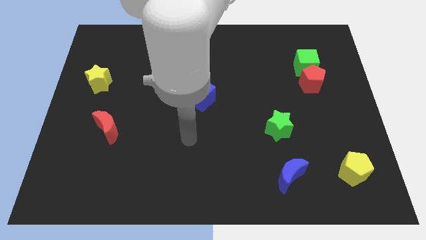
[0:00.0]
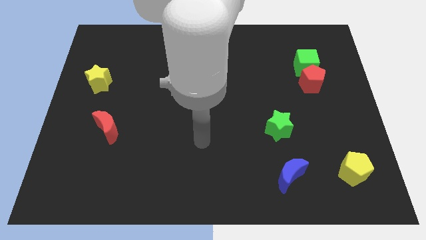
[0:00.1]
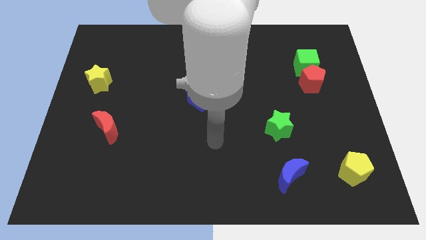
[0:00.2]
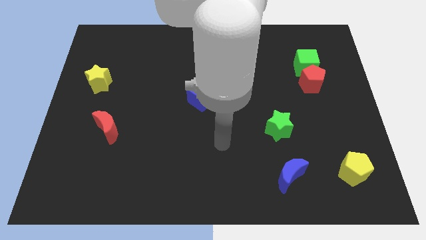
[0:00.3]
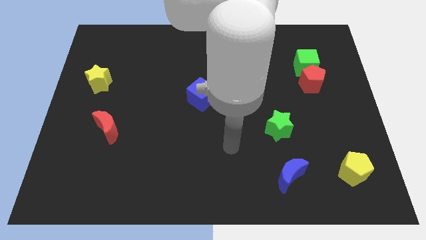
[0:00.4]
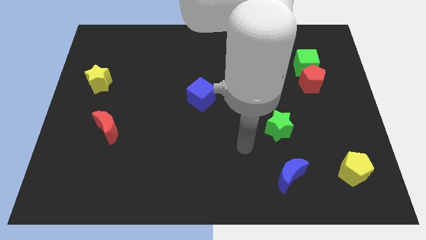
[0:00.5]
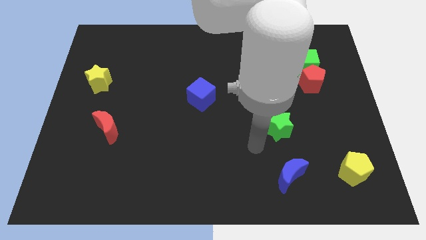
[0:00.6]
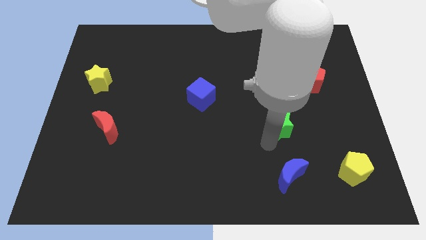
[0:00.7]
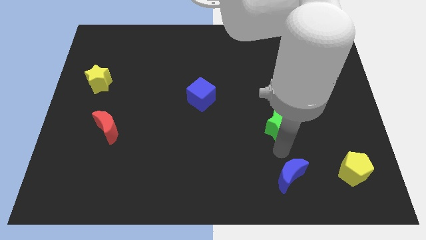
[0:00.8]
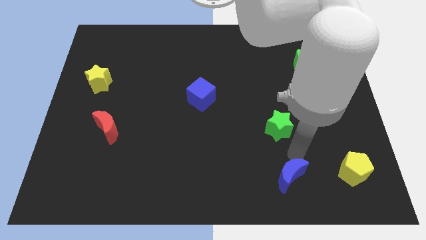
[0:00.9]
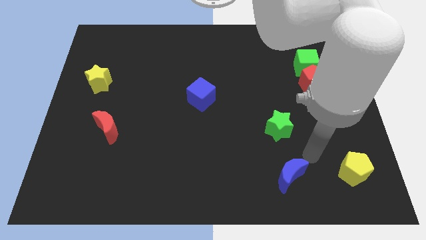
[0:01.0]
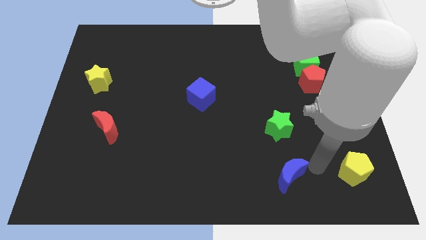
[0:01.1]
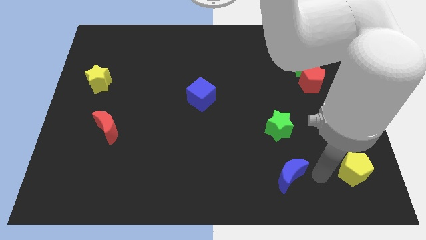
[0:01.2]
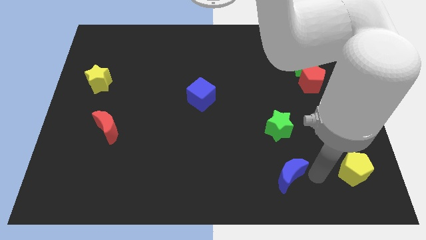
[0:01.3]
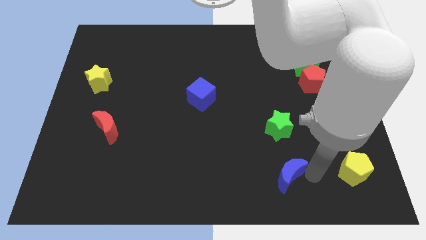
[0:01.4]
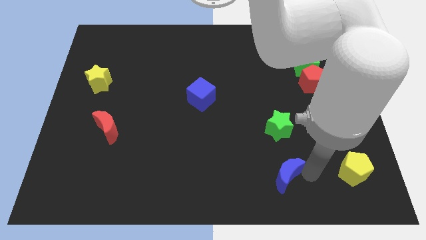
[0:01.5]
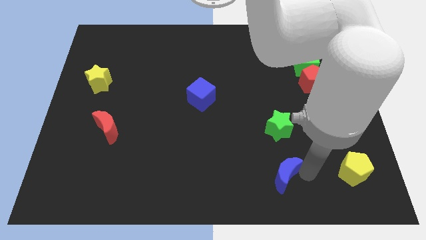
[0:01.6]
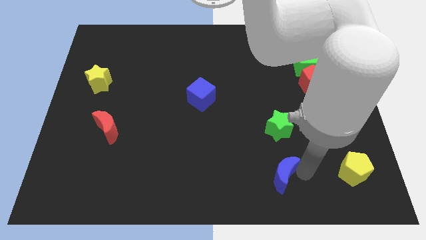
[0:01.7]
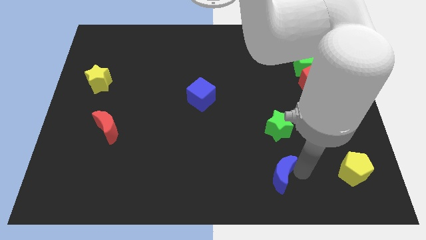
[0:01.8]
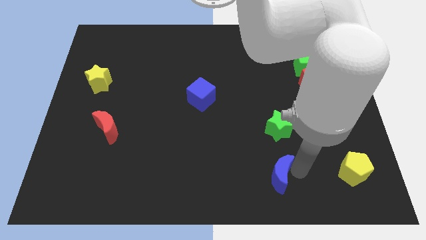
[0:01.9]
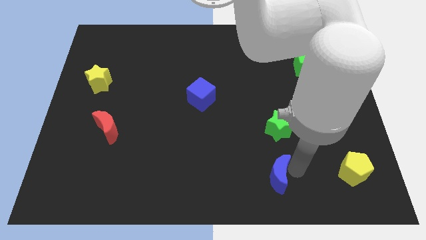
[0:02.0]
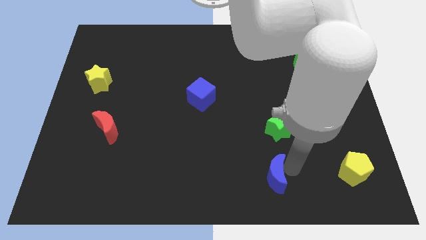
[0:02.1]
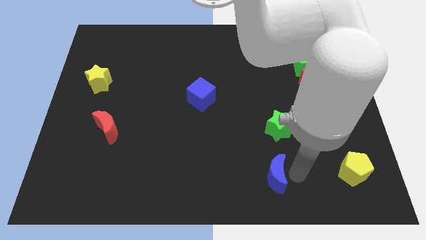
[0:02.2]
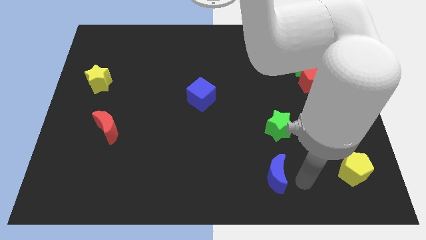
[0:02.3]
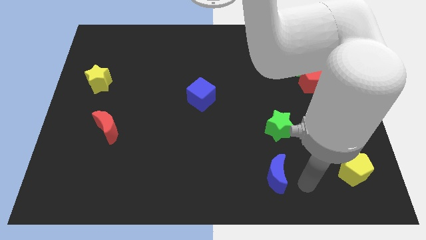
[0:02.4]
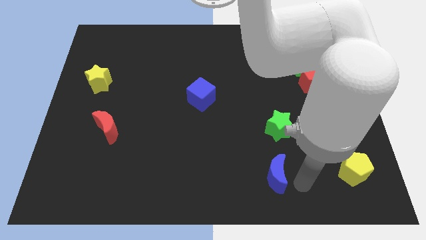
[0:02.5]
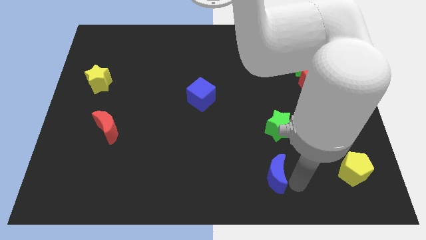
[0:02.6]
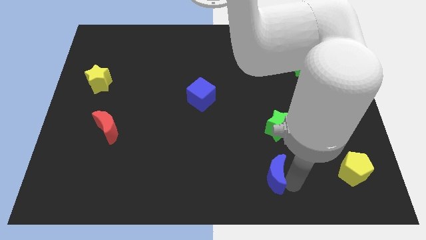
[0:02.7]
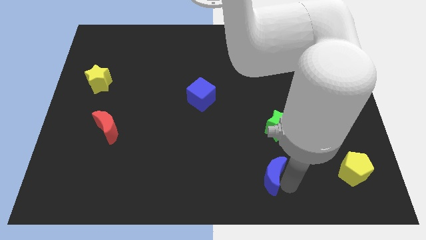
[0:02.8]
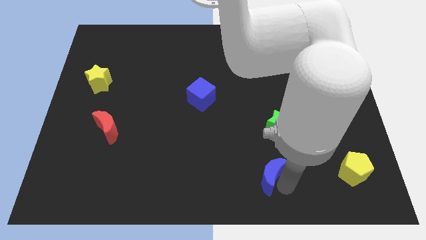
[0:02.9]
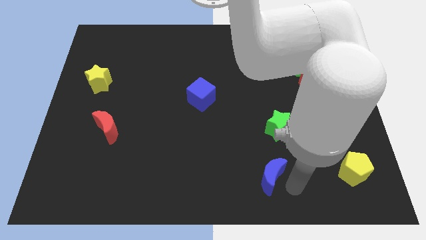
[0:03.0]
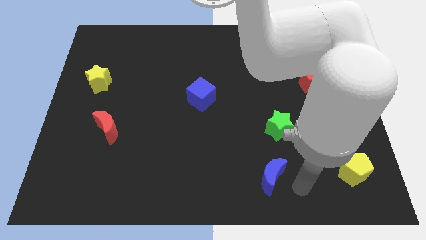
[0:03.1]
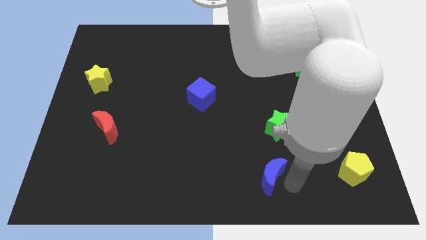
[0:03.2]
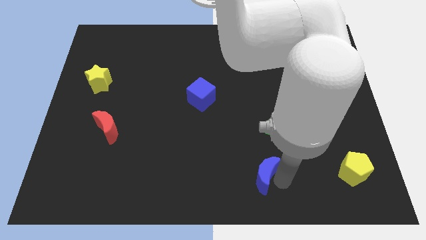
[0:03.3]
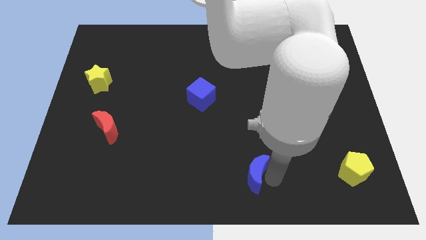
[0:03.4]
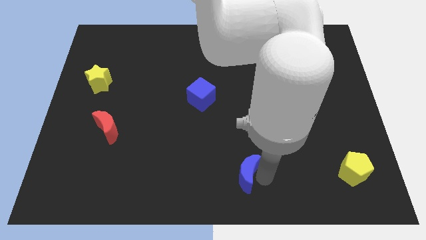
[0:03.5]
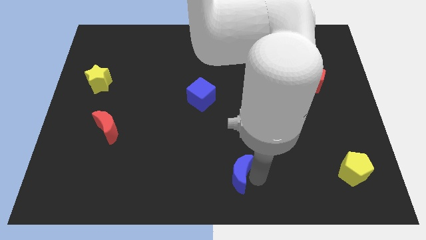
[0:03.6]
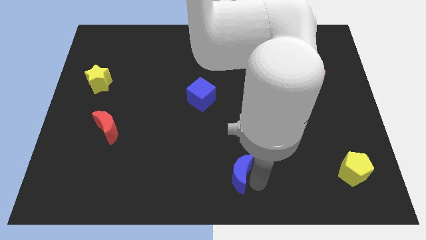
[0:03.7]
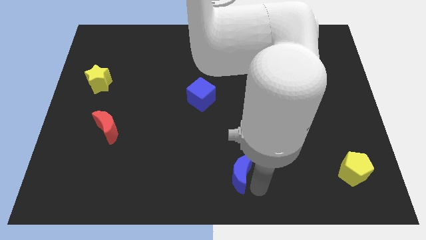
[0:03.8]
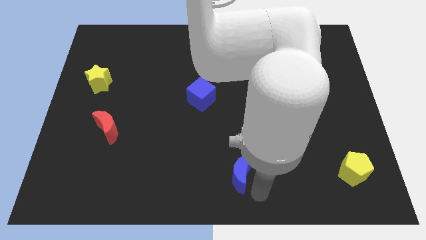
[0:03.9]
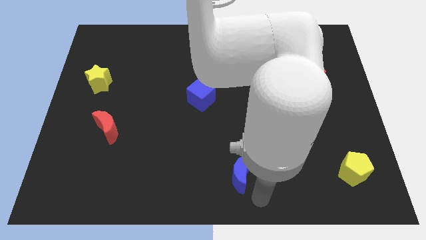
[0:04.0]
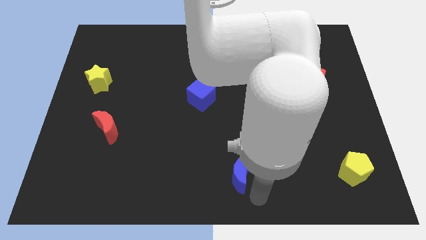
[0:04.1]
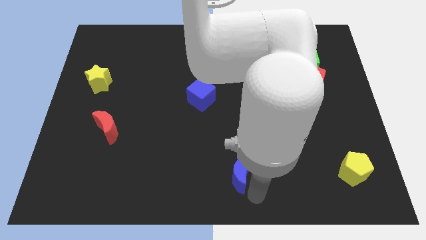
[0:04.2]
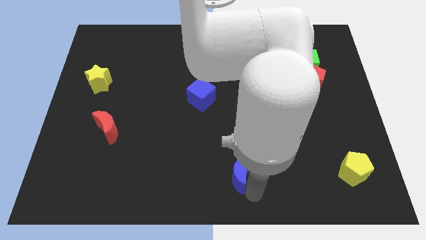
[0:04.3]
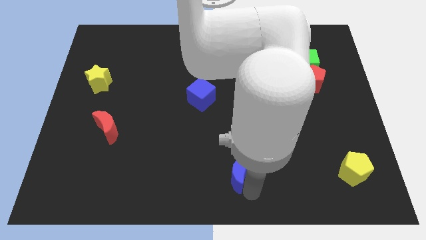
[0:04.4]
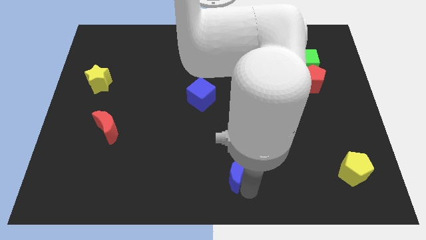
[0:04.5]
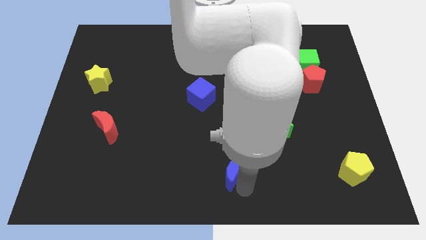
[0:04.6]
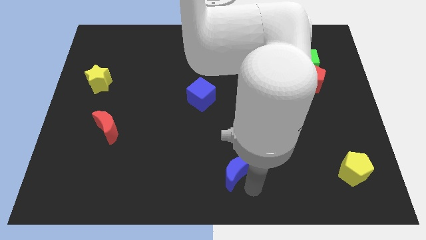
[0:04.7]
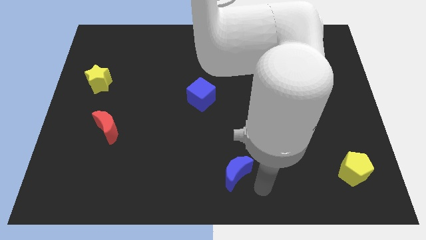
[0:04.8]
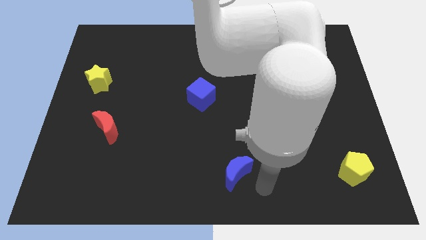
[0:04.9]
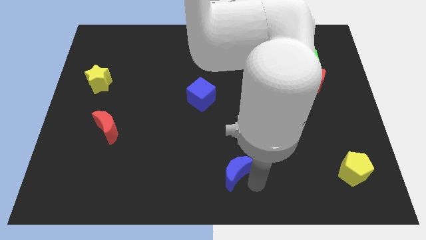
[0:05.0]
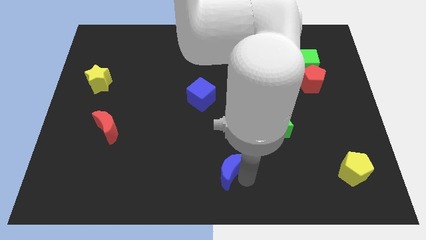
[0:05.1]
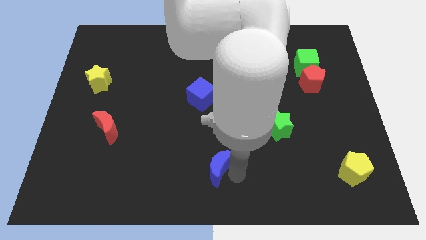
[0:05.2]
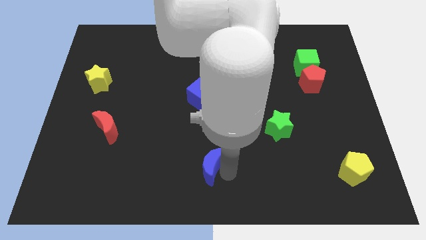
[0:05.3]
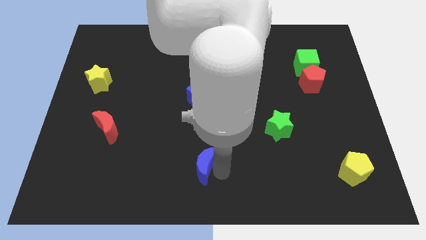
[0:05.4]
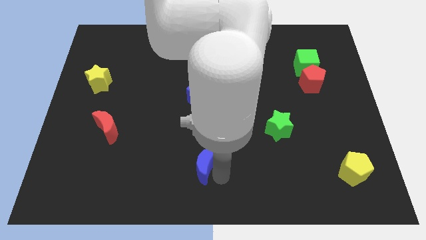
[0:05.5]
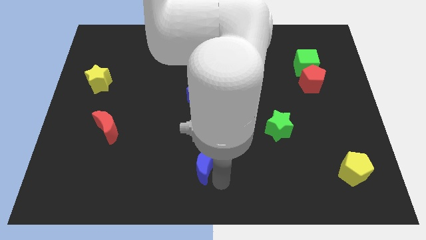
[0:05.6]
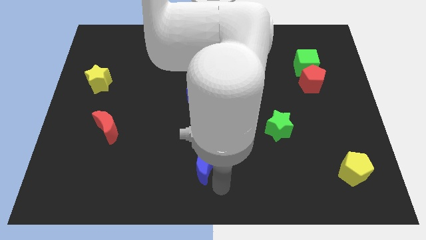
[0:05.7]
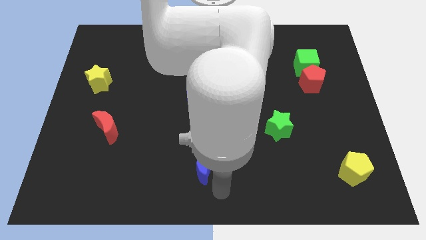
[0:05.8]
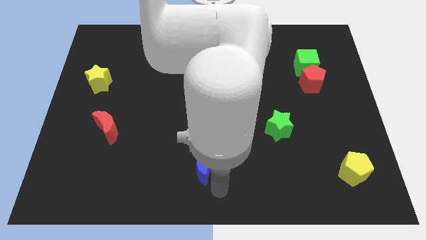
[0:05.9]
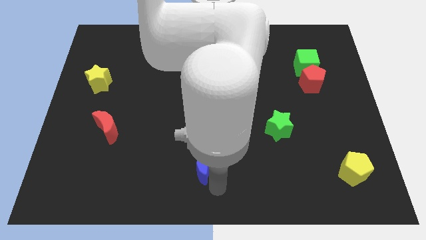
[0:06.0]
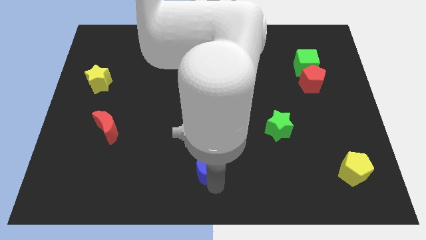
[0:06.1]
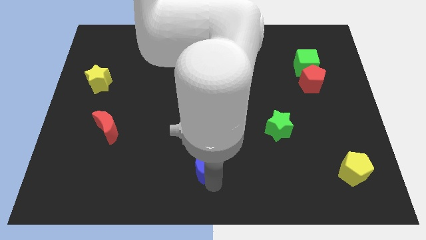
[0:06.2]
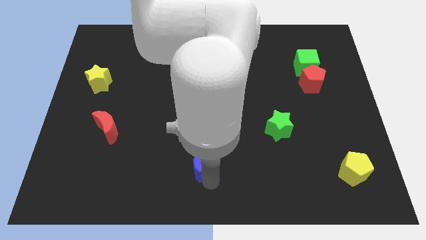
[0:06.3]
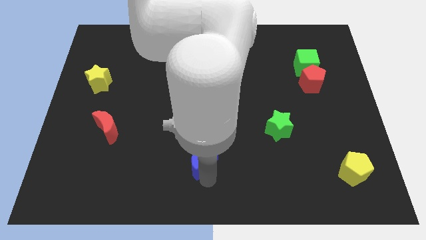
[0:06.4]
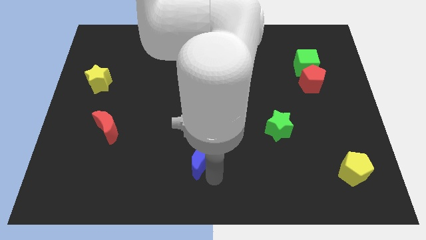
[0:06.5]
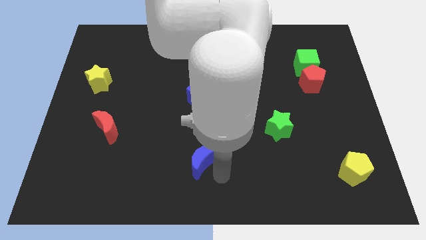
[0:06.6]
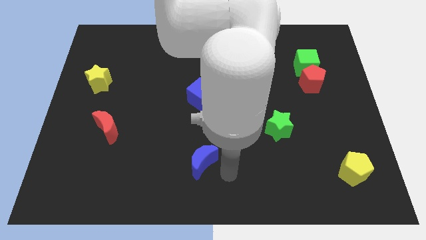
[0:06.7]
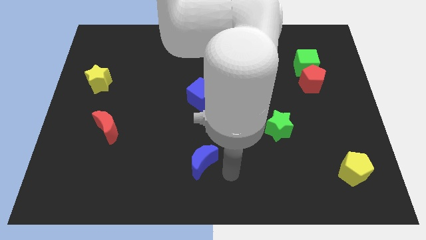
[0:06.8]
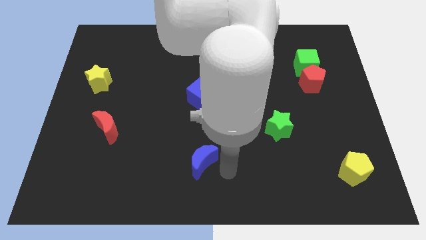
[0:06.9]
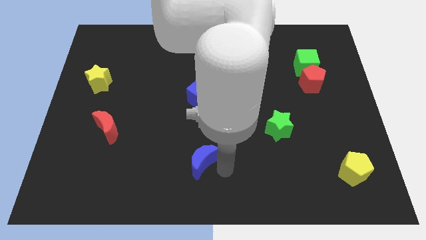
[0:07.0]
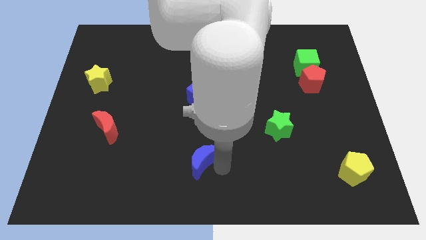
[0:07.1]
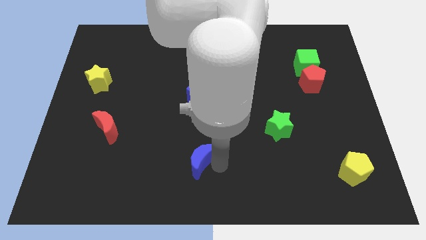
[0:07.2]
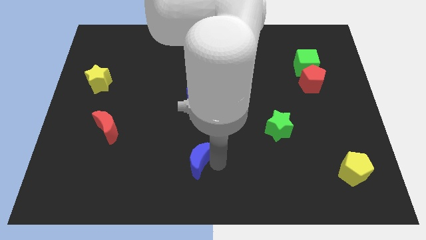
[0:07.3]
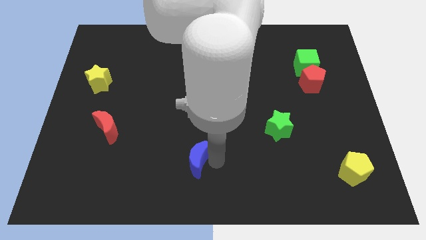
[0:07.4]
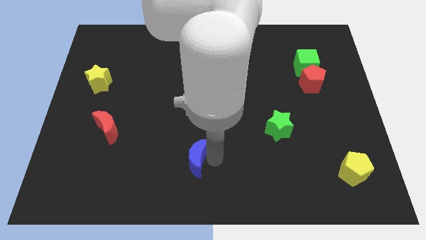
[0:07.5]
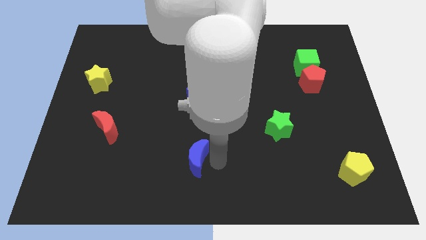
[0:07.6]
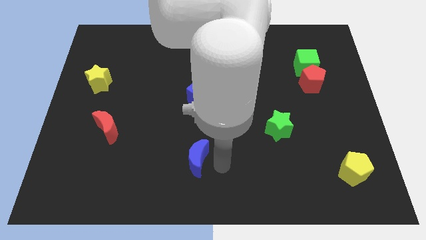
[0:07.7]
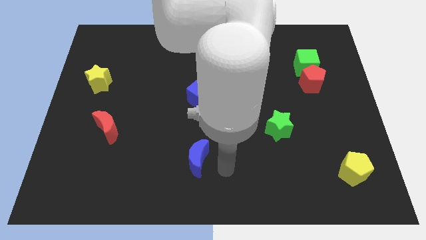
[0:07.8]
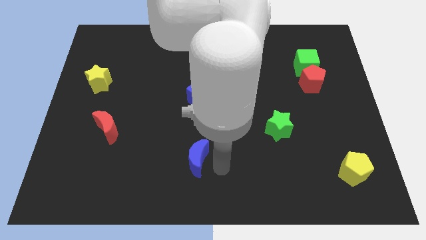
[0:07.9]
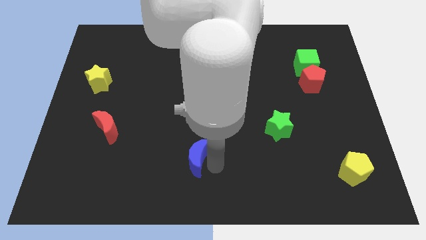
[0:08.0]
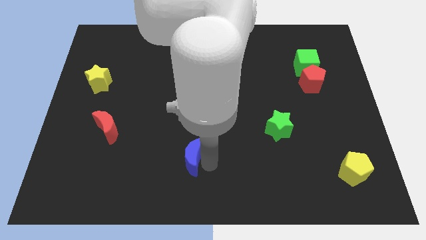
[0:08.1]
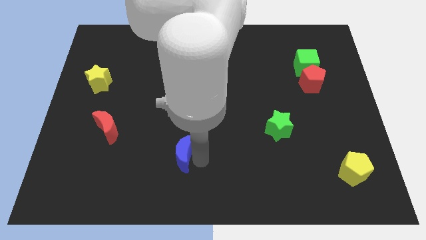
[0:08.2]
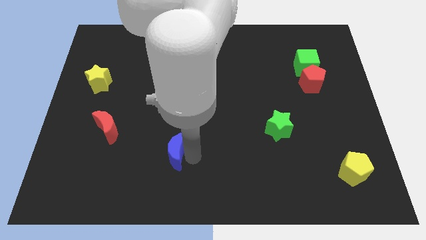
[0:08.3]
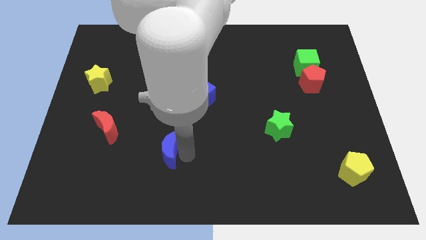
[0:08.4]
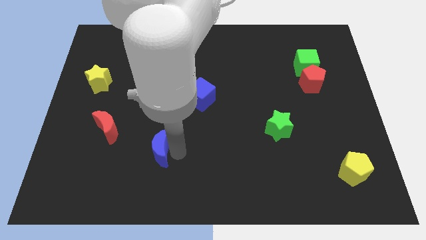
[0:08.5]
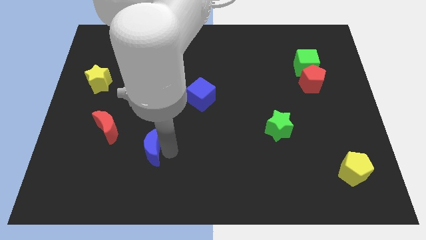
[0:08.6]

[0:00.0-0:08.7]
put the blue moon to the bottom right side of the red moon
